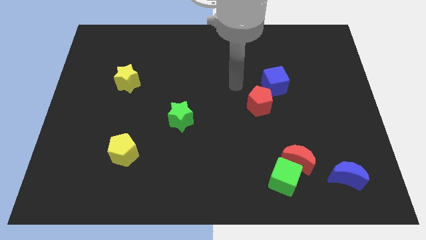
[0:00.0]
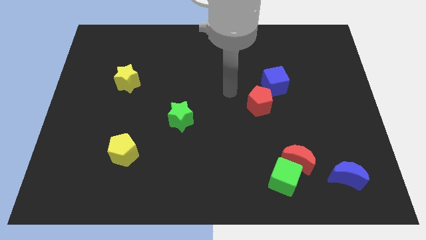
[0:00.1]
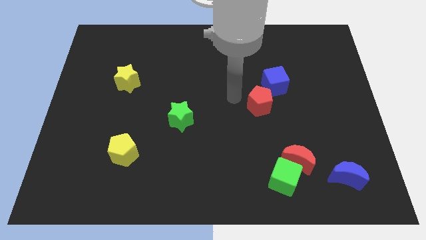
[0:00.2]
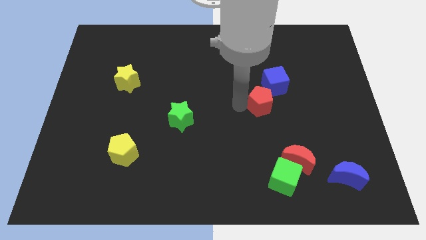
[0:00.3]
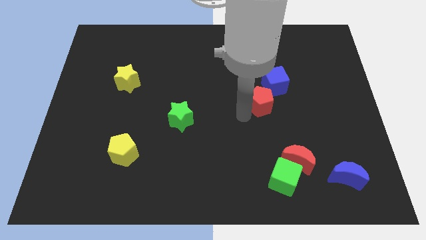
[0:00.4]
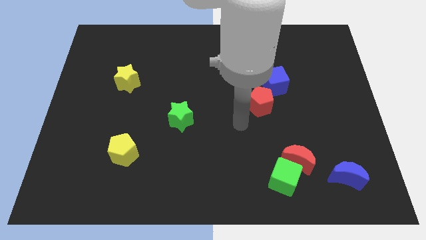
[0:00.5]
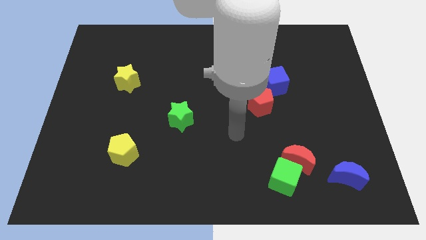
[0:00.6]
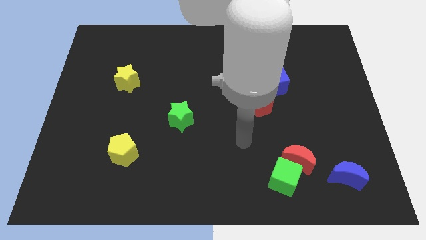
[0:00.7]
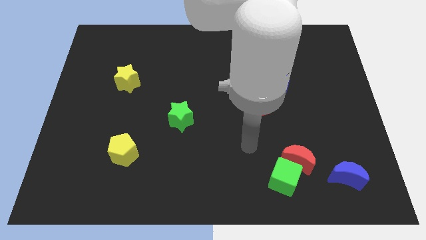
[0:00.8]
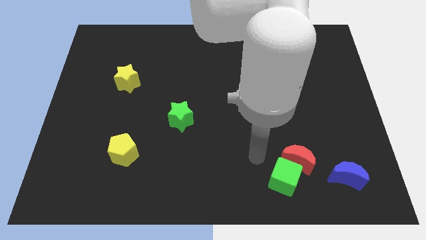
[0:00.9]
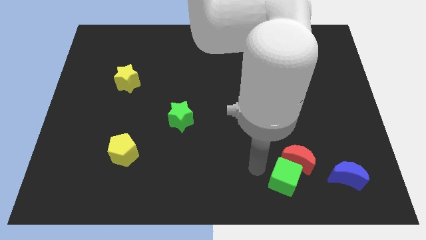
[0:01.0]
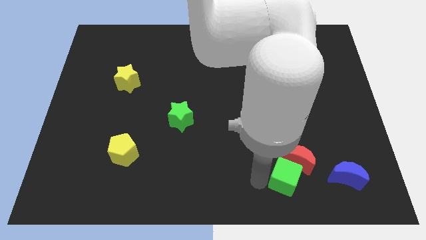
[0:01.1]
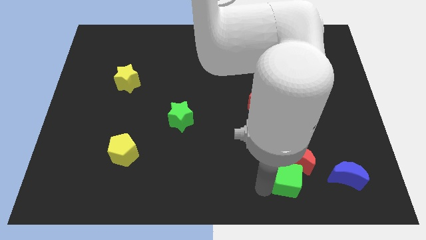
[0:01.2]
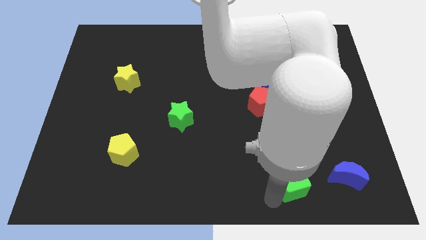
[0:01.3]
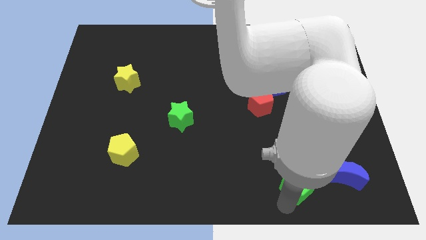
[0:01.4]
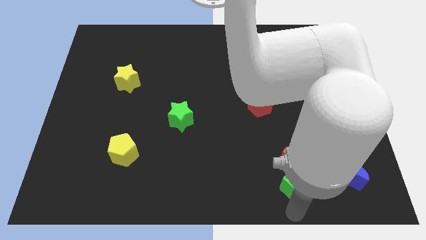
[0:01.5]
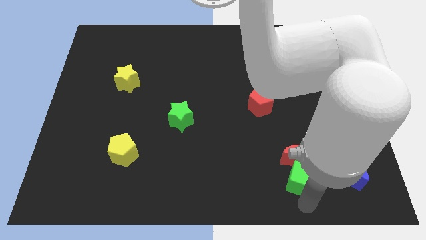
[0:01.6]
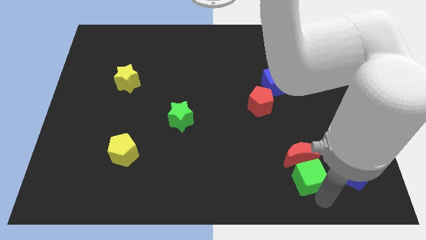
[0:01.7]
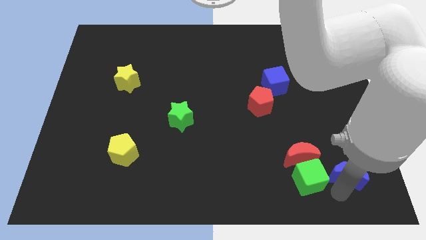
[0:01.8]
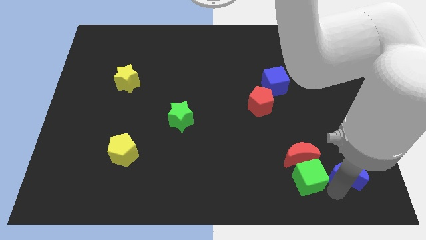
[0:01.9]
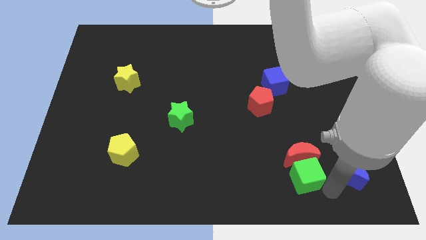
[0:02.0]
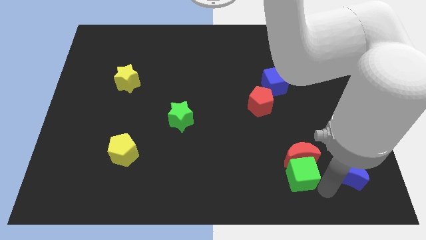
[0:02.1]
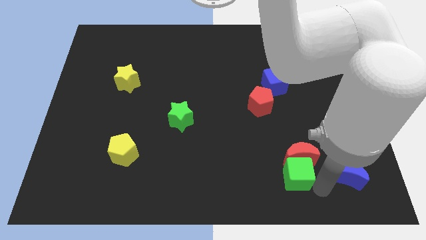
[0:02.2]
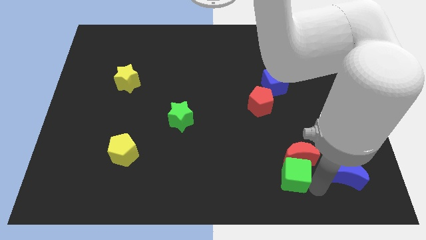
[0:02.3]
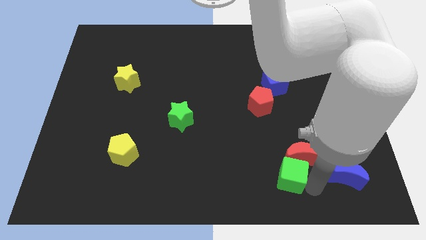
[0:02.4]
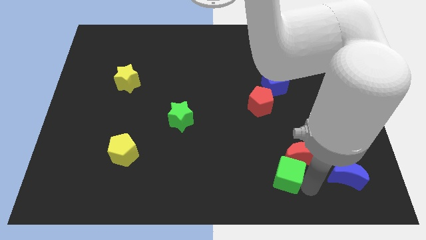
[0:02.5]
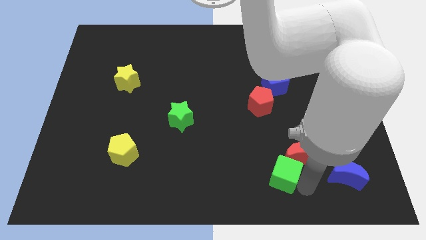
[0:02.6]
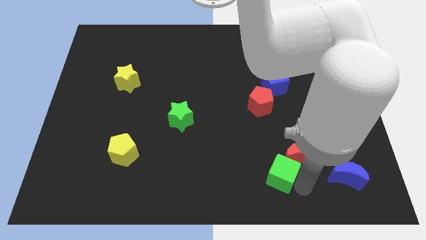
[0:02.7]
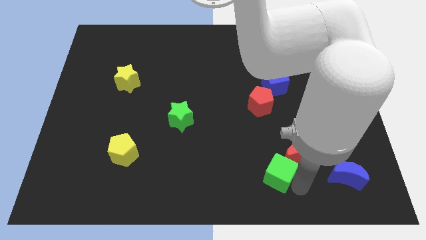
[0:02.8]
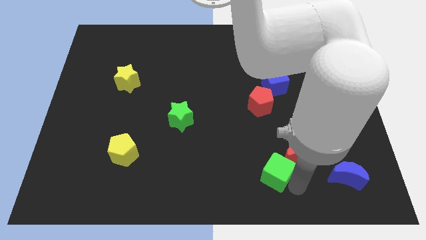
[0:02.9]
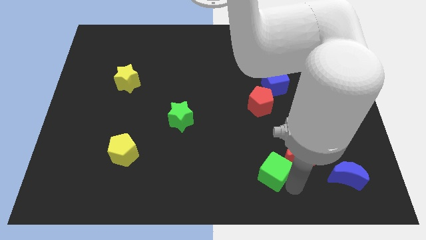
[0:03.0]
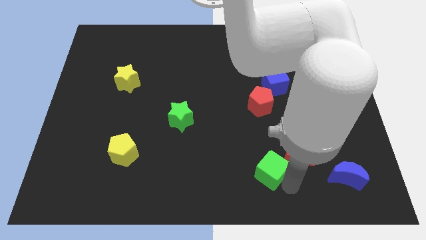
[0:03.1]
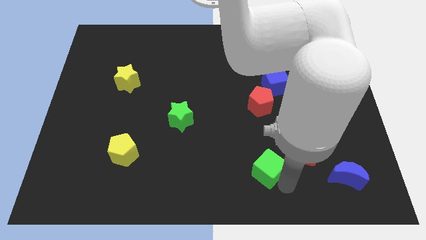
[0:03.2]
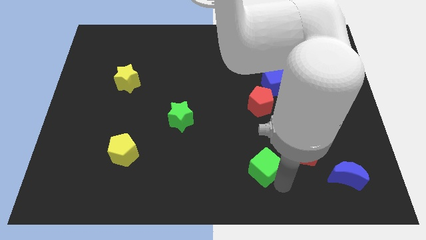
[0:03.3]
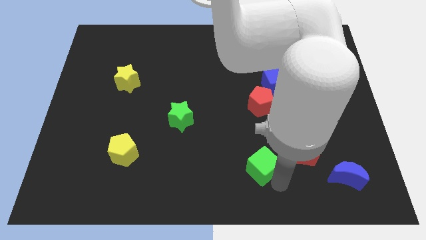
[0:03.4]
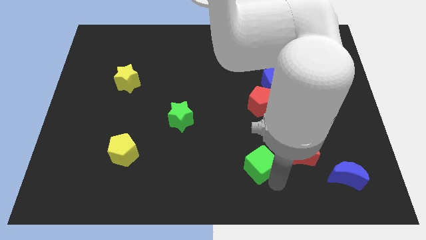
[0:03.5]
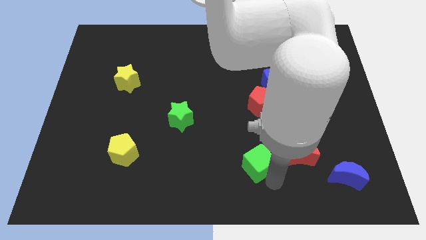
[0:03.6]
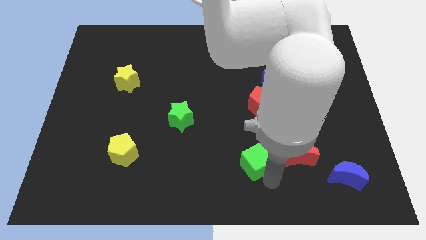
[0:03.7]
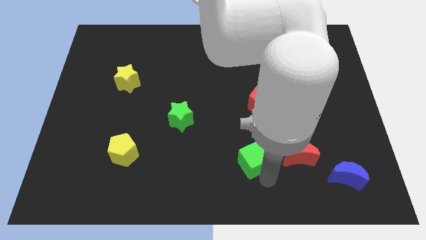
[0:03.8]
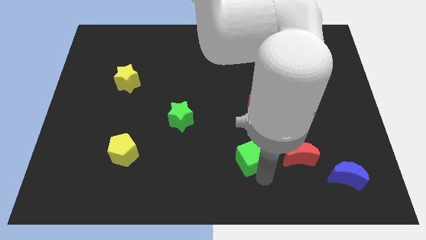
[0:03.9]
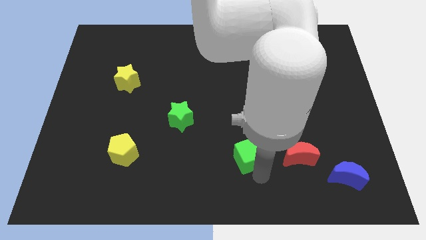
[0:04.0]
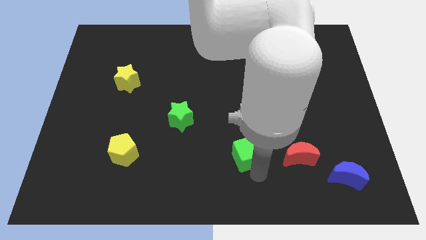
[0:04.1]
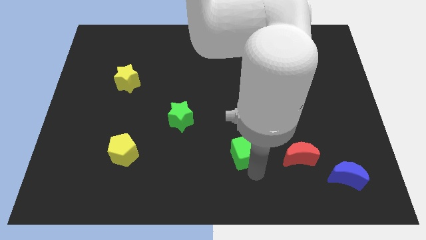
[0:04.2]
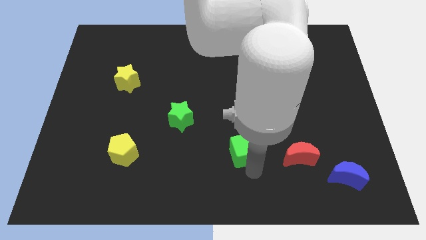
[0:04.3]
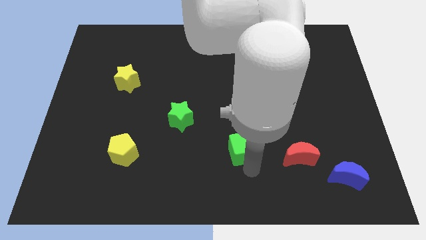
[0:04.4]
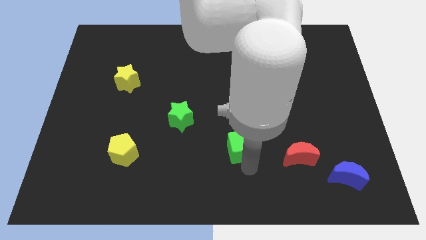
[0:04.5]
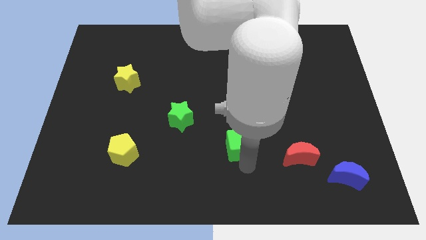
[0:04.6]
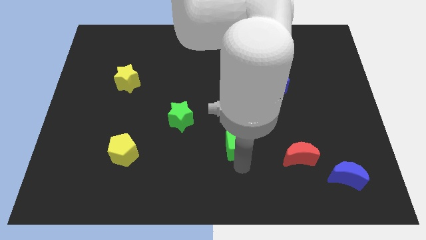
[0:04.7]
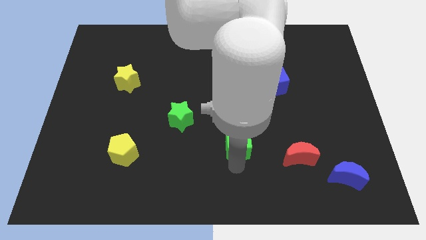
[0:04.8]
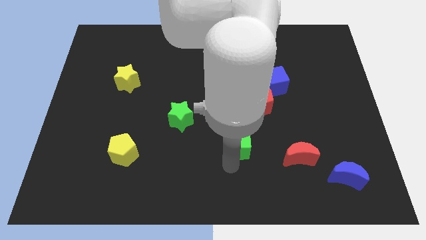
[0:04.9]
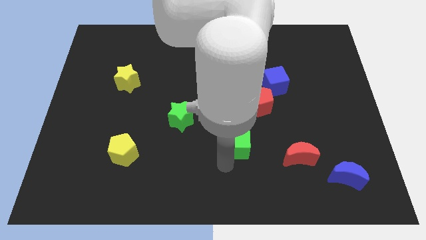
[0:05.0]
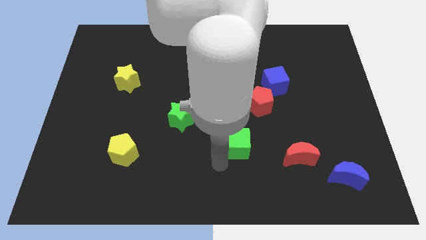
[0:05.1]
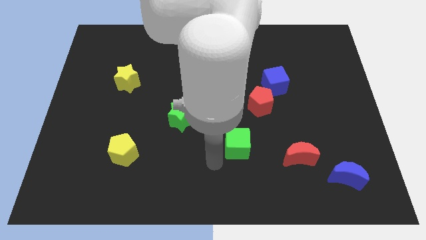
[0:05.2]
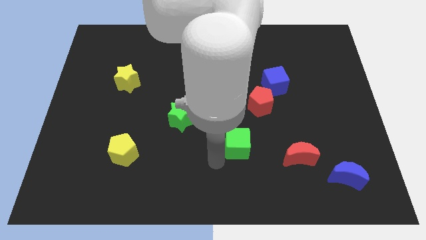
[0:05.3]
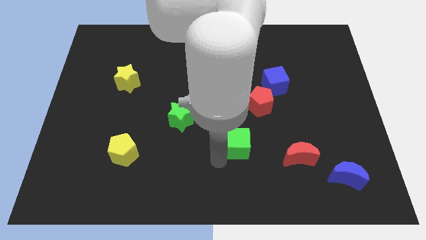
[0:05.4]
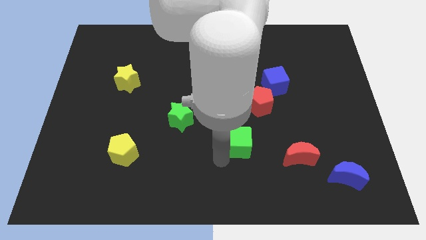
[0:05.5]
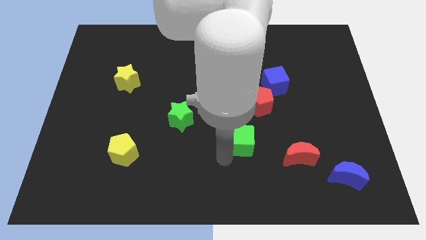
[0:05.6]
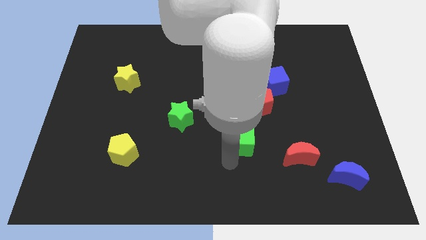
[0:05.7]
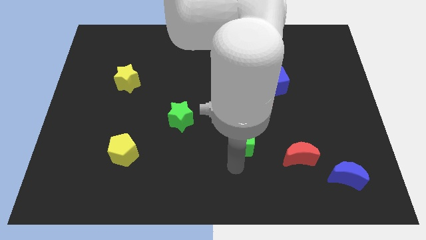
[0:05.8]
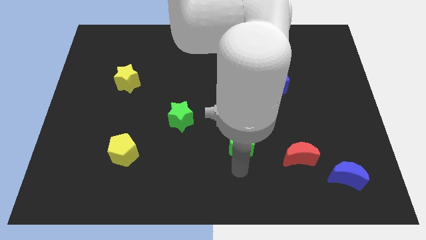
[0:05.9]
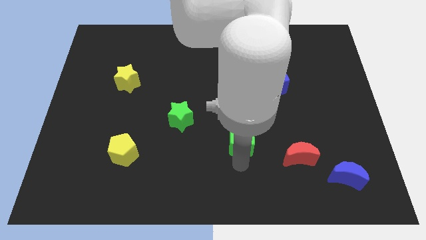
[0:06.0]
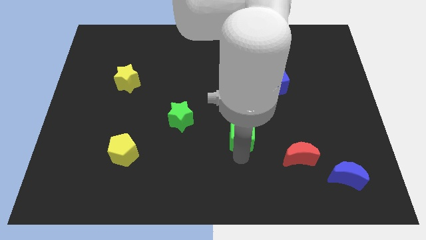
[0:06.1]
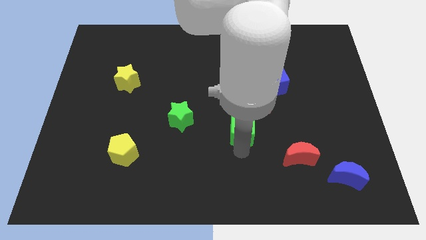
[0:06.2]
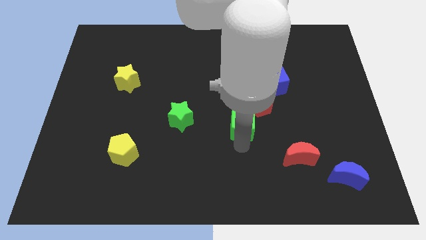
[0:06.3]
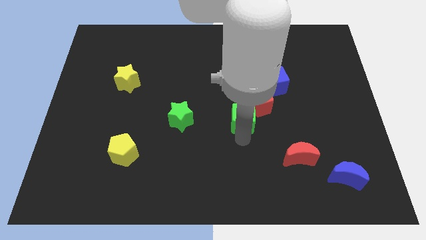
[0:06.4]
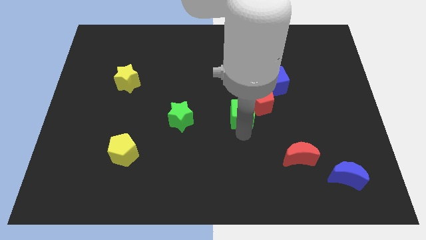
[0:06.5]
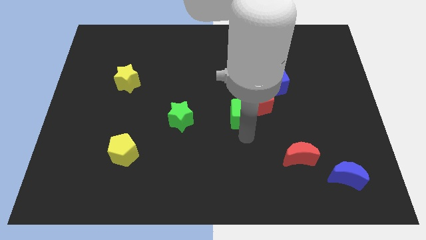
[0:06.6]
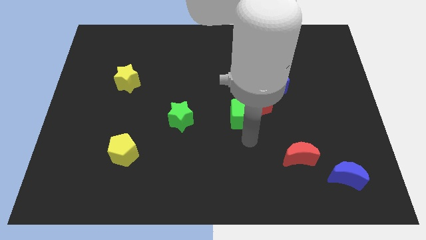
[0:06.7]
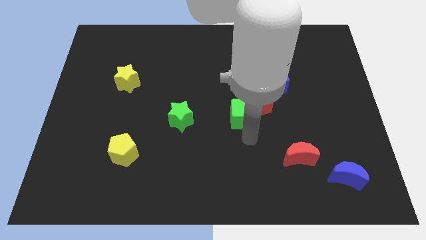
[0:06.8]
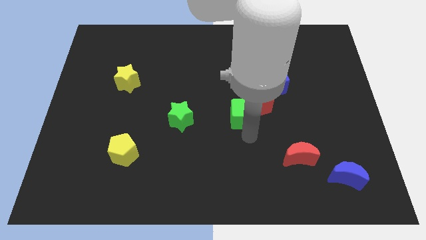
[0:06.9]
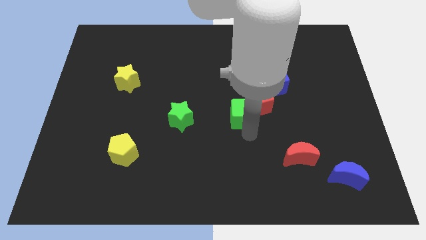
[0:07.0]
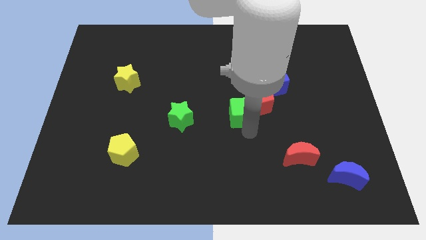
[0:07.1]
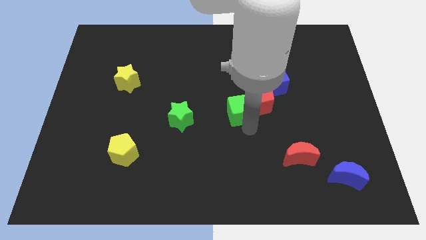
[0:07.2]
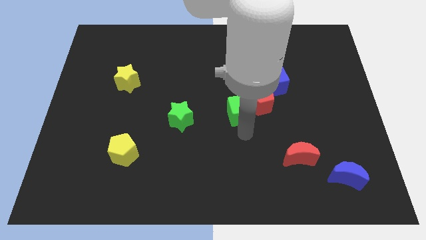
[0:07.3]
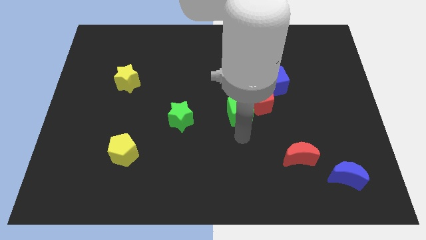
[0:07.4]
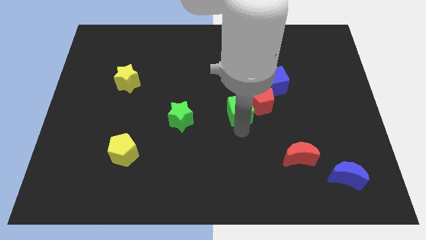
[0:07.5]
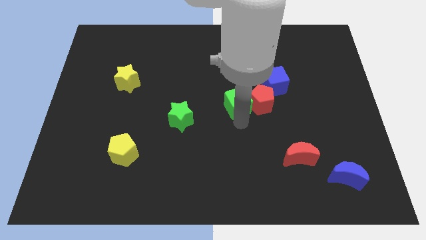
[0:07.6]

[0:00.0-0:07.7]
put the green cube to the top left side of the red pentagon
